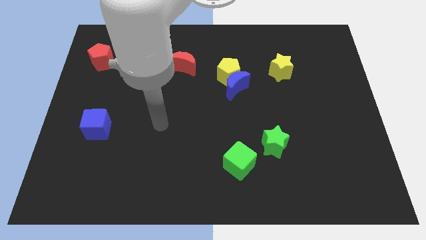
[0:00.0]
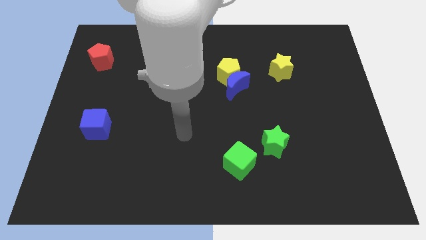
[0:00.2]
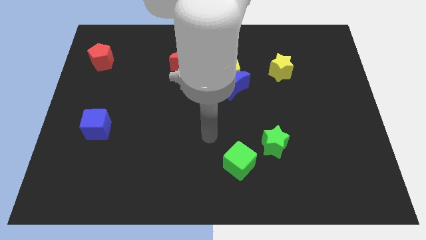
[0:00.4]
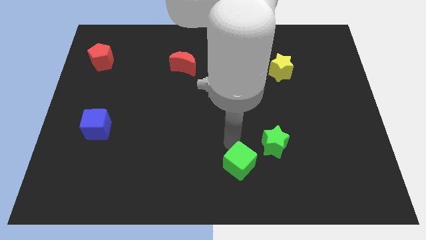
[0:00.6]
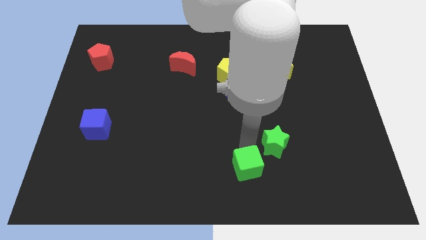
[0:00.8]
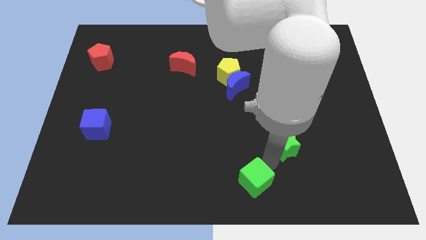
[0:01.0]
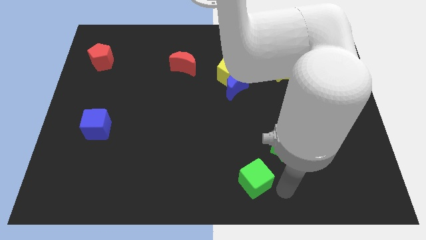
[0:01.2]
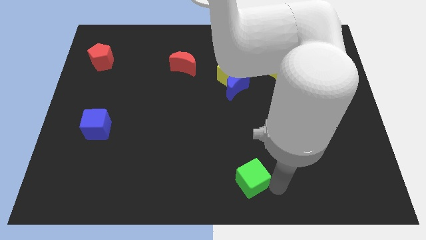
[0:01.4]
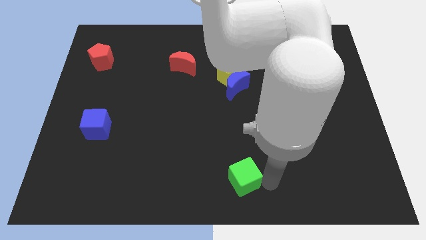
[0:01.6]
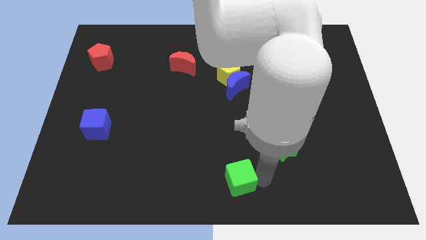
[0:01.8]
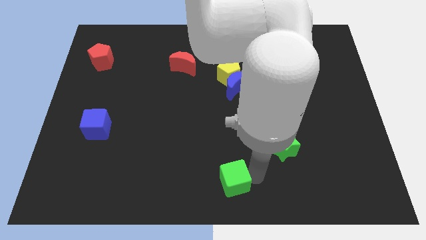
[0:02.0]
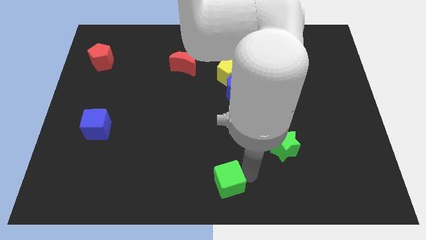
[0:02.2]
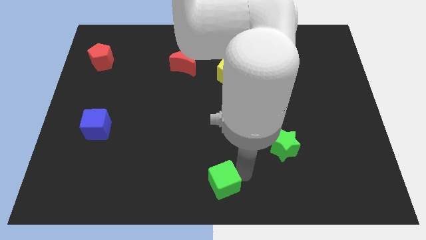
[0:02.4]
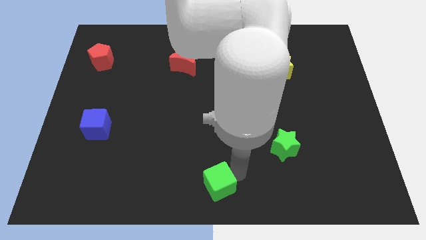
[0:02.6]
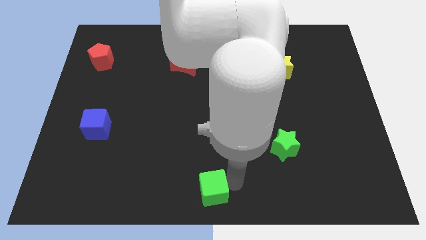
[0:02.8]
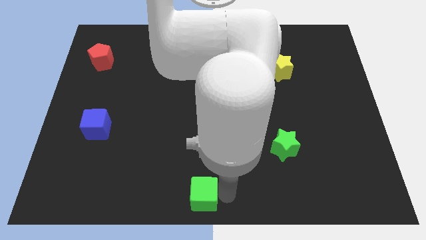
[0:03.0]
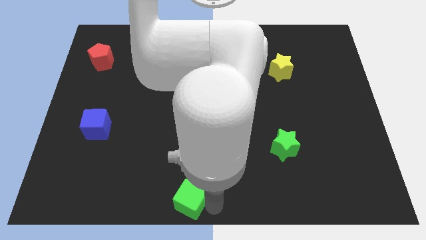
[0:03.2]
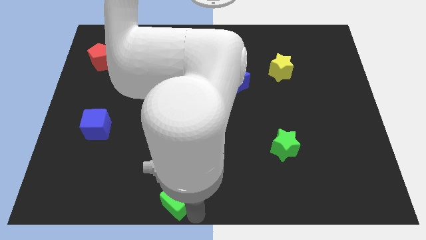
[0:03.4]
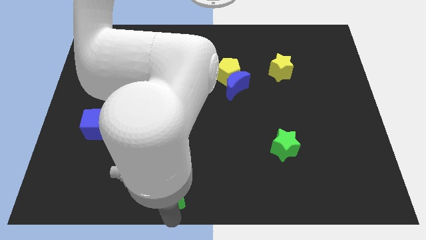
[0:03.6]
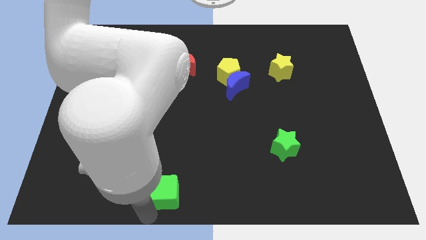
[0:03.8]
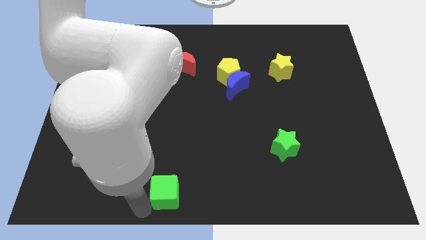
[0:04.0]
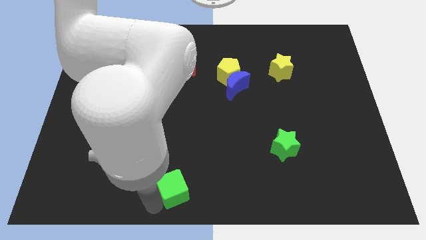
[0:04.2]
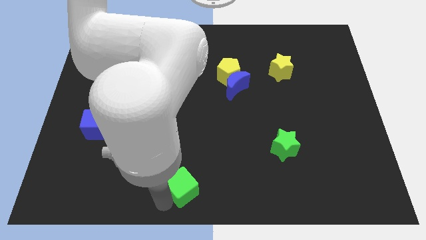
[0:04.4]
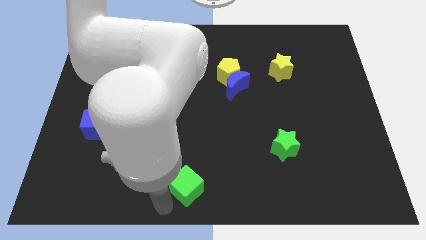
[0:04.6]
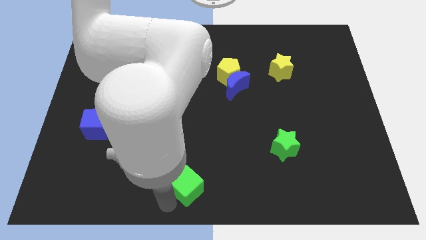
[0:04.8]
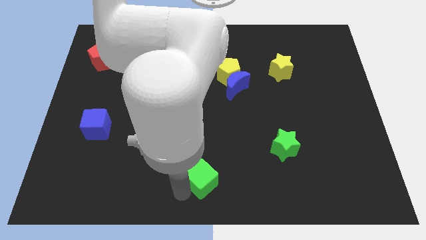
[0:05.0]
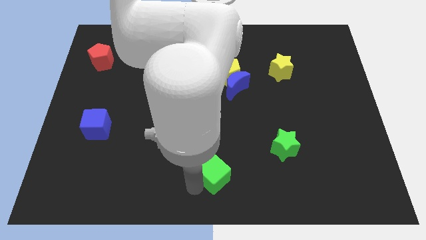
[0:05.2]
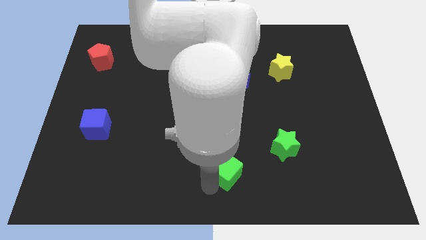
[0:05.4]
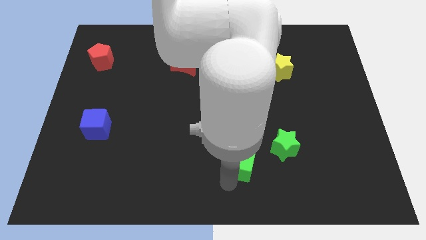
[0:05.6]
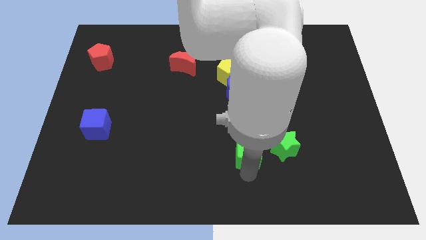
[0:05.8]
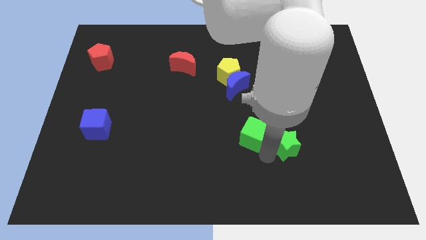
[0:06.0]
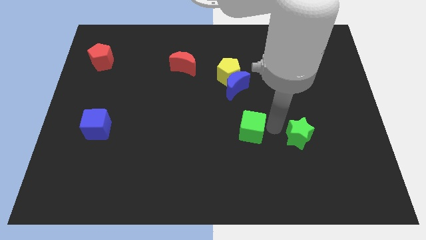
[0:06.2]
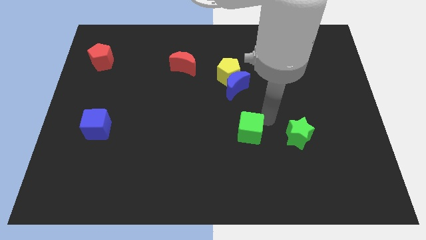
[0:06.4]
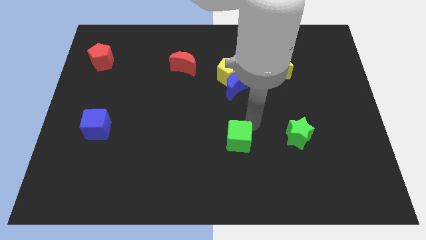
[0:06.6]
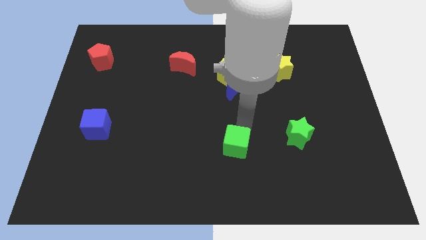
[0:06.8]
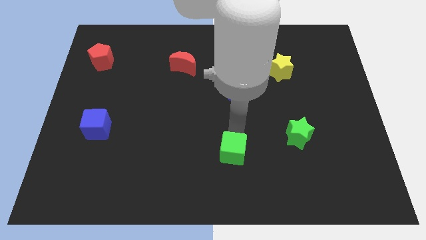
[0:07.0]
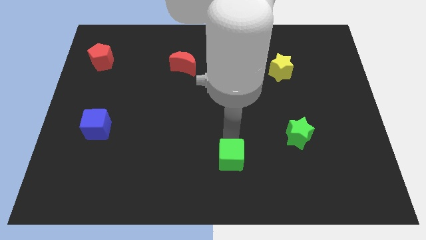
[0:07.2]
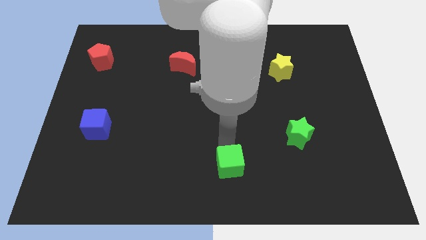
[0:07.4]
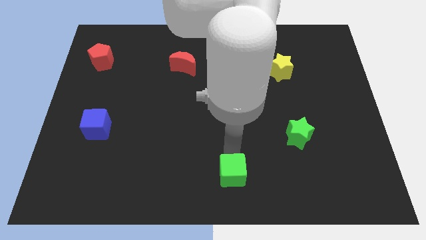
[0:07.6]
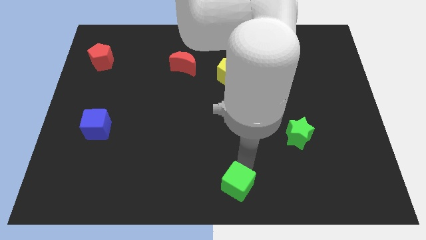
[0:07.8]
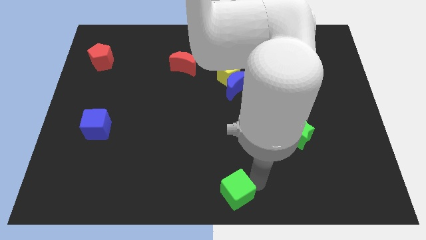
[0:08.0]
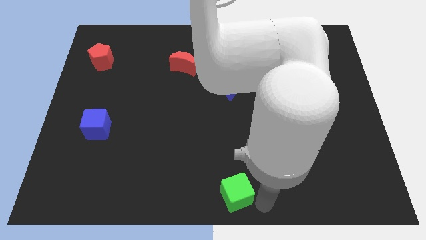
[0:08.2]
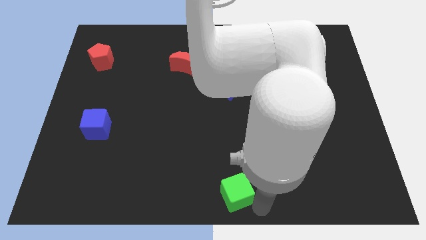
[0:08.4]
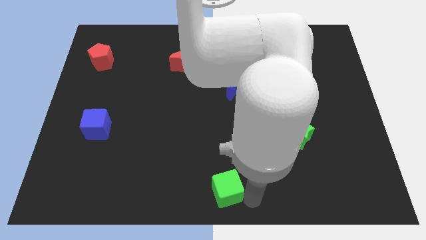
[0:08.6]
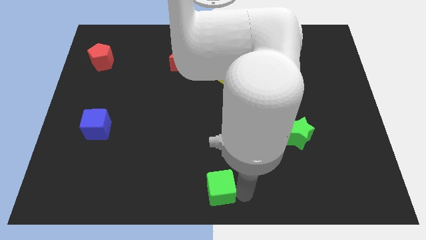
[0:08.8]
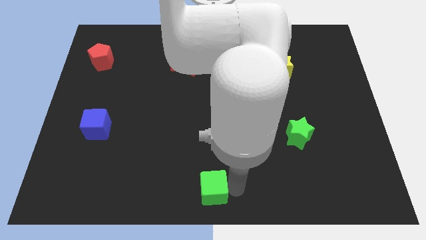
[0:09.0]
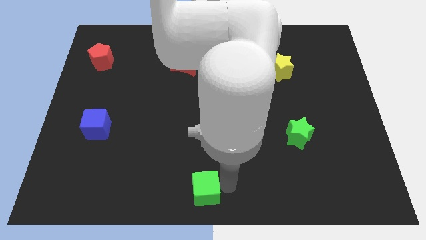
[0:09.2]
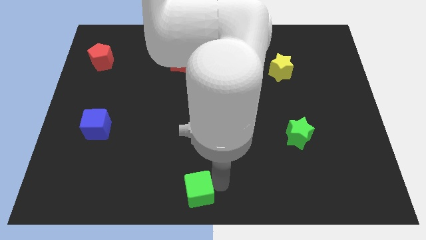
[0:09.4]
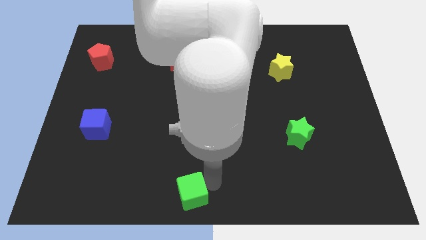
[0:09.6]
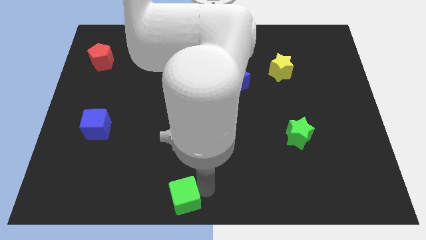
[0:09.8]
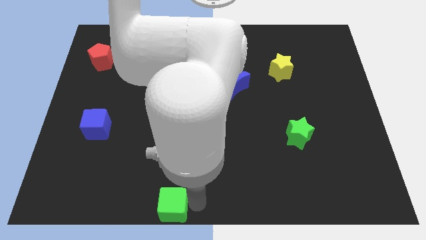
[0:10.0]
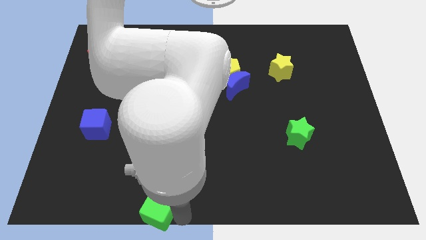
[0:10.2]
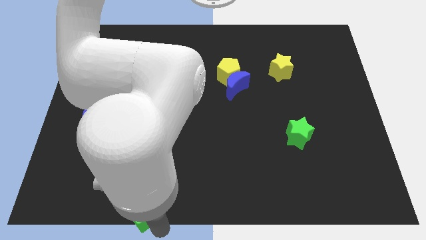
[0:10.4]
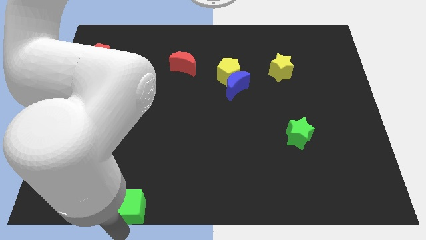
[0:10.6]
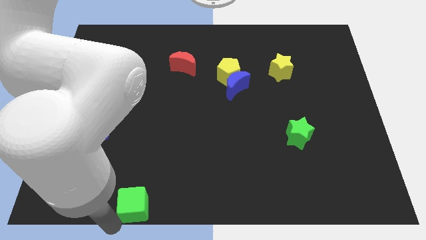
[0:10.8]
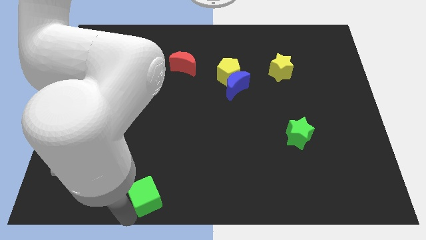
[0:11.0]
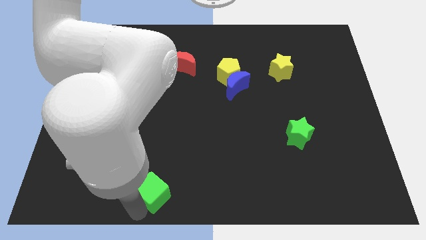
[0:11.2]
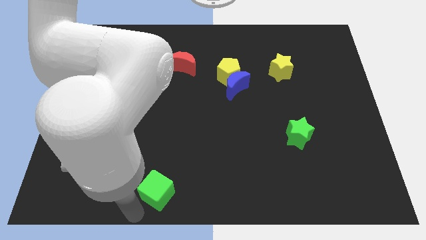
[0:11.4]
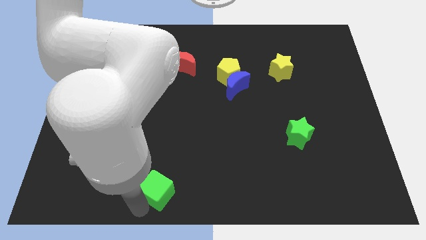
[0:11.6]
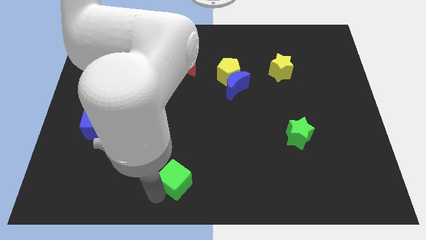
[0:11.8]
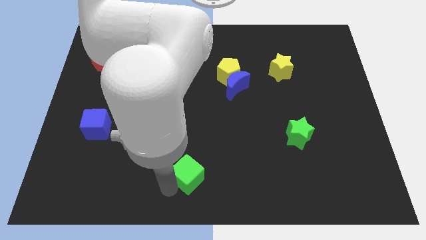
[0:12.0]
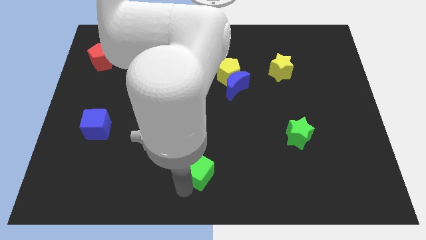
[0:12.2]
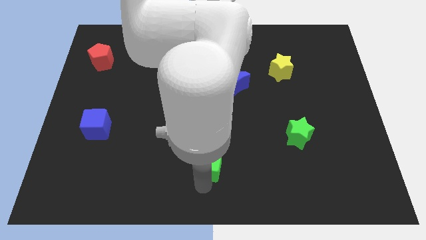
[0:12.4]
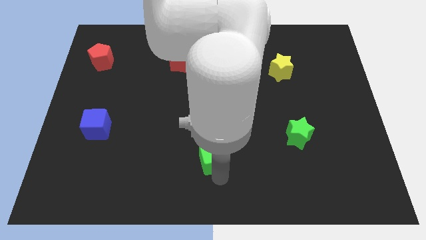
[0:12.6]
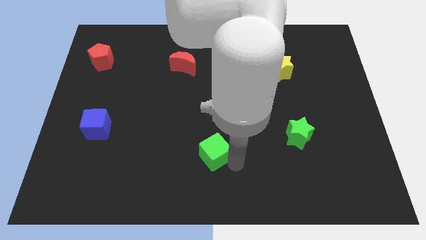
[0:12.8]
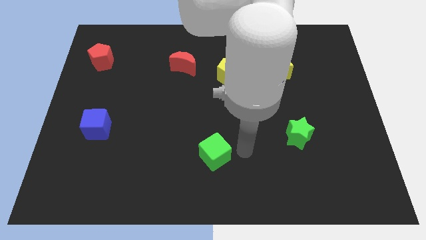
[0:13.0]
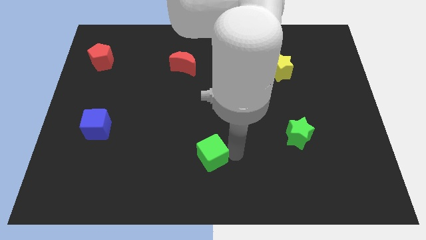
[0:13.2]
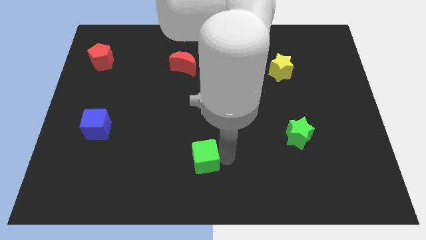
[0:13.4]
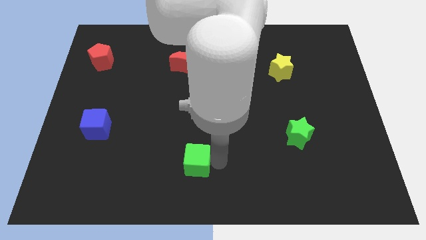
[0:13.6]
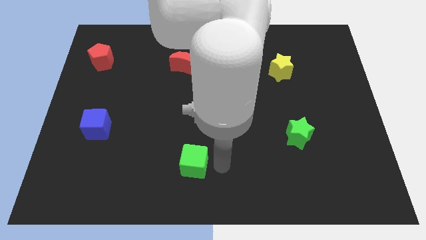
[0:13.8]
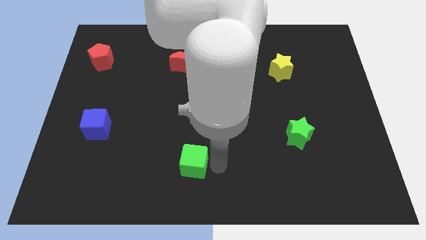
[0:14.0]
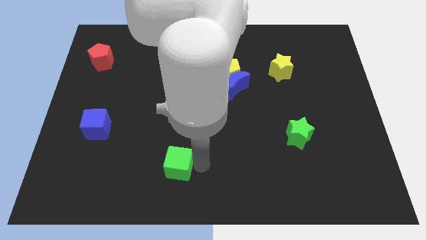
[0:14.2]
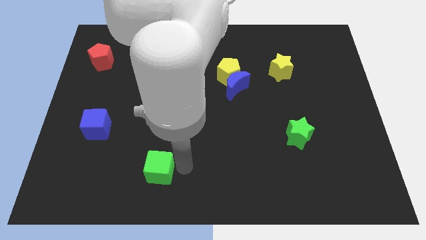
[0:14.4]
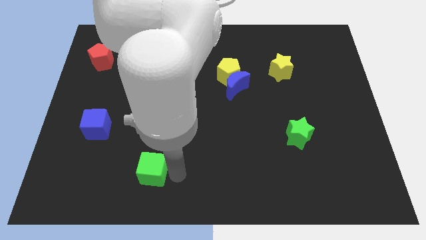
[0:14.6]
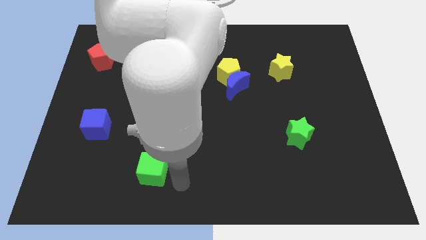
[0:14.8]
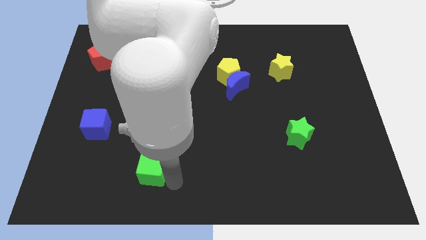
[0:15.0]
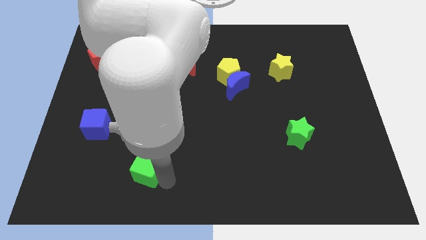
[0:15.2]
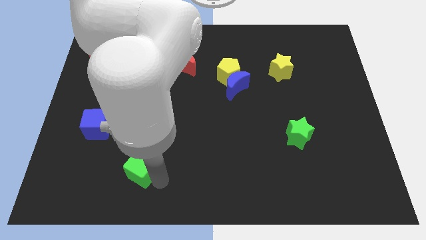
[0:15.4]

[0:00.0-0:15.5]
push the green cube to the left

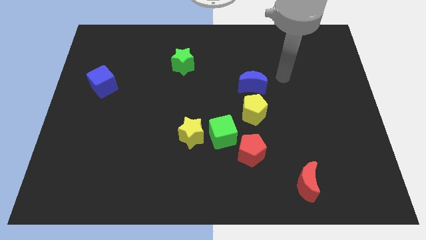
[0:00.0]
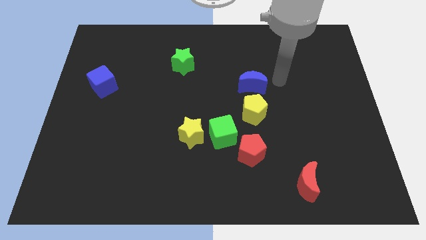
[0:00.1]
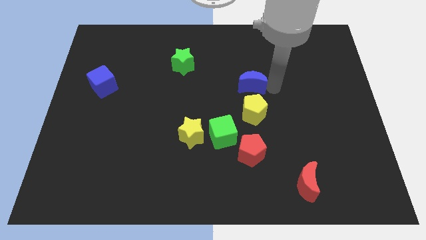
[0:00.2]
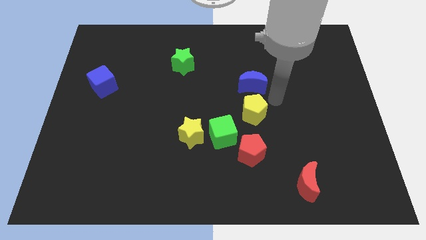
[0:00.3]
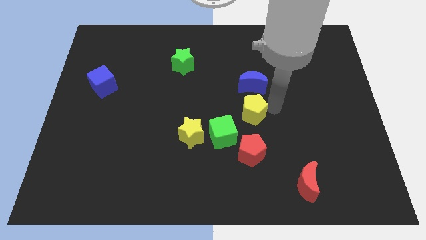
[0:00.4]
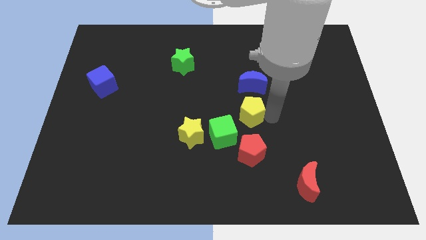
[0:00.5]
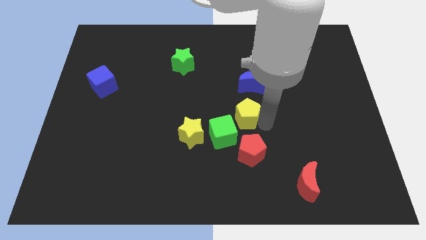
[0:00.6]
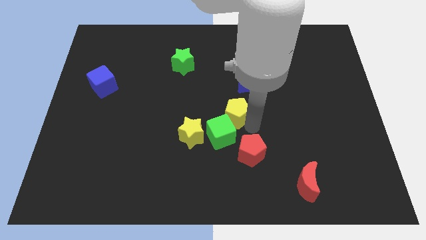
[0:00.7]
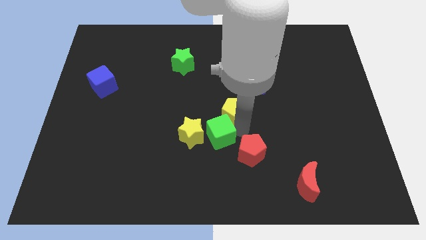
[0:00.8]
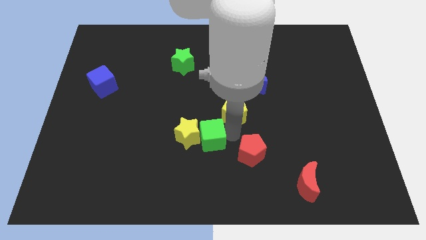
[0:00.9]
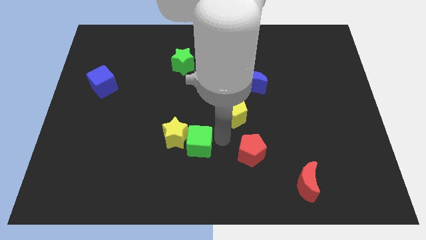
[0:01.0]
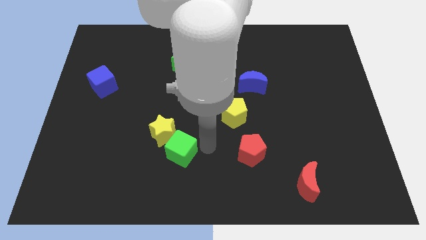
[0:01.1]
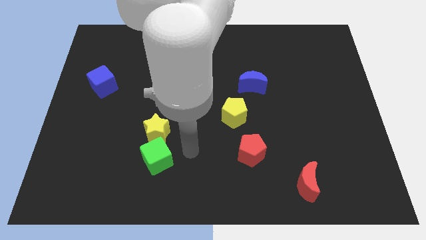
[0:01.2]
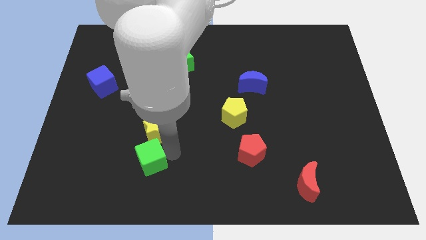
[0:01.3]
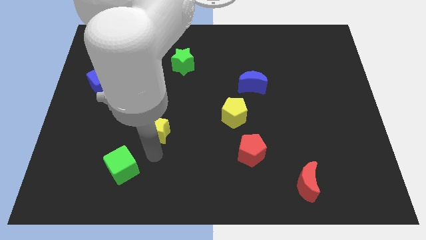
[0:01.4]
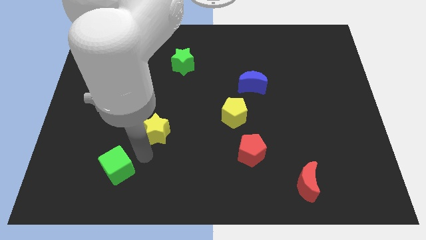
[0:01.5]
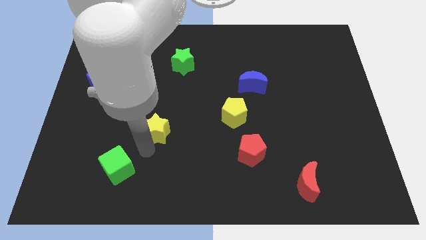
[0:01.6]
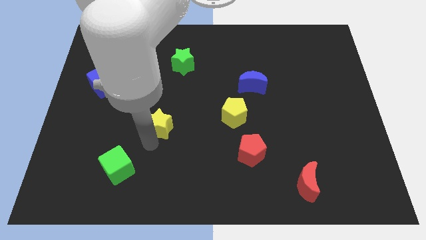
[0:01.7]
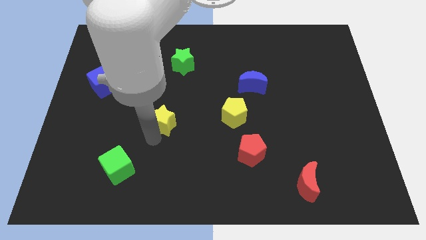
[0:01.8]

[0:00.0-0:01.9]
slightly move the yellow star upwards and left diagonally
